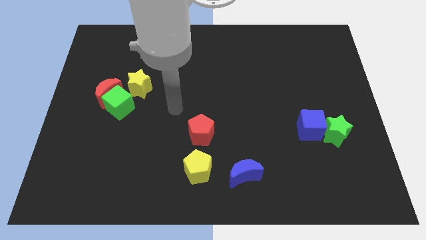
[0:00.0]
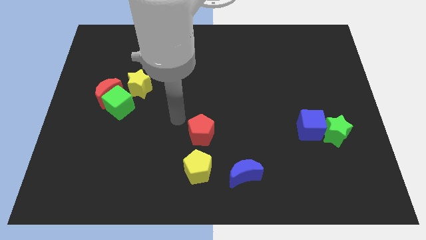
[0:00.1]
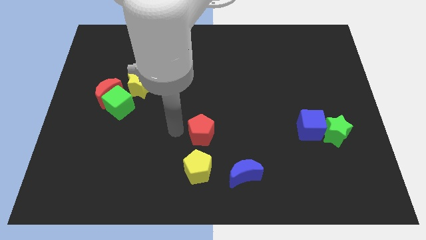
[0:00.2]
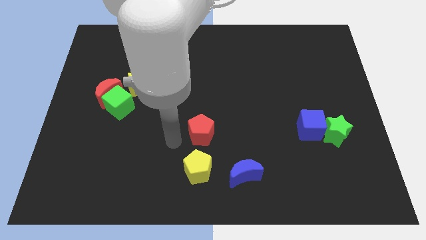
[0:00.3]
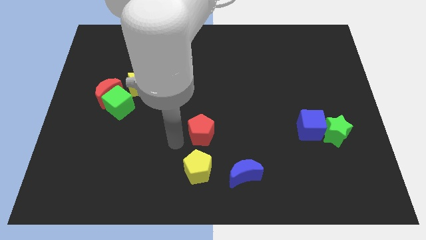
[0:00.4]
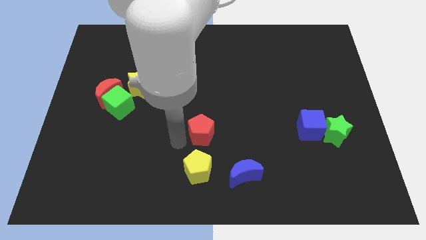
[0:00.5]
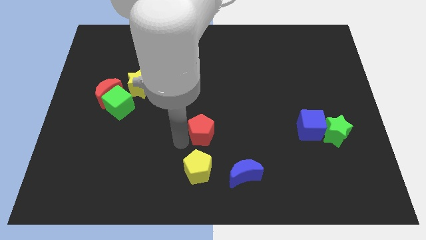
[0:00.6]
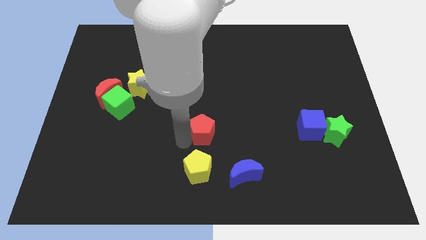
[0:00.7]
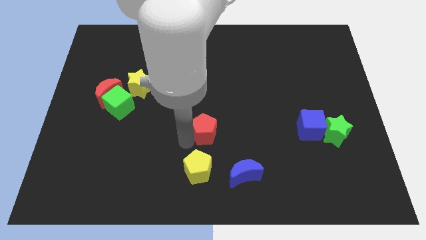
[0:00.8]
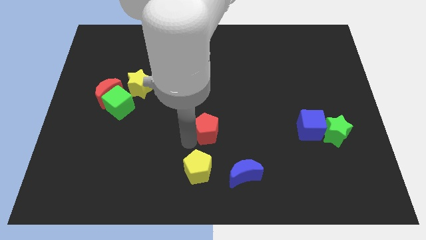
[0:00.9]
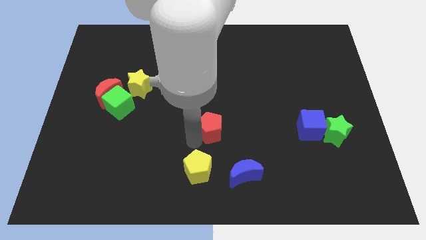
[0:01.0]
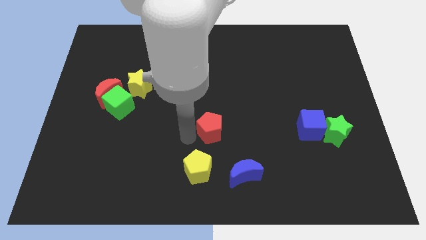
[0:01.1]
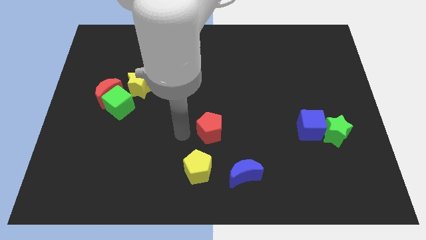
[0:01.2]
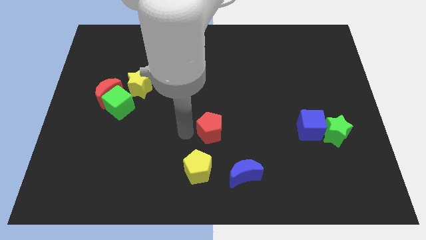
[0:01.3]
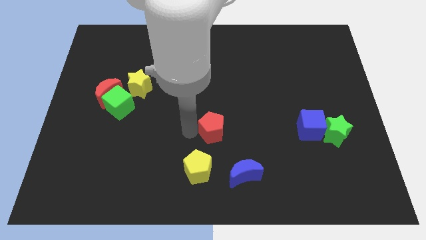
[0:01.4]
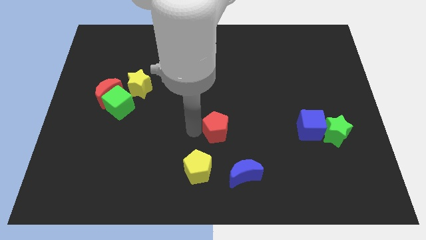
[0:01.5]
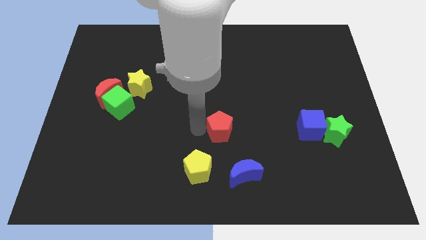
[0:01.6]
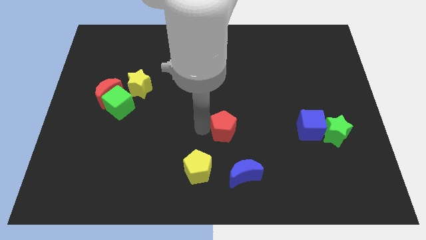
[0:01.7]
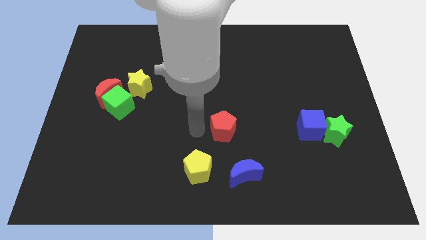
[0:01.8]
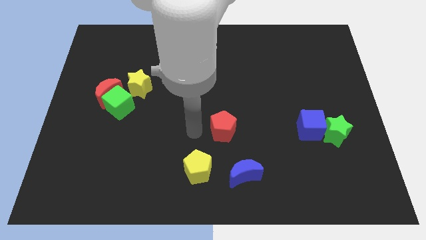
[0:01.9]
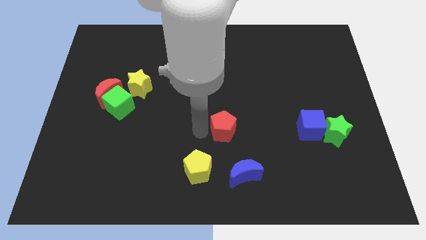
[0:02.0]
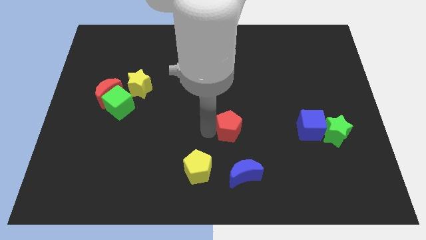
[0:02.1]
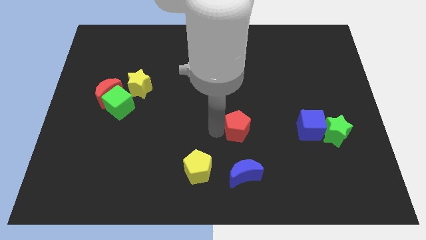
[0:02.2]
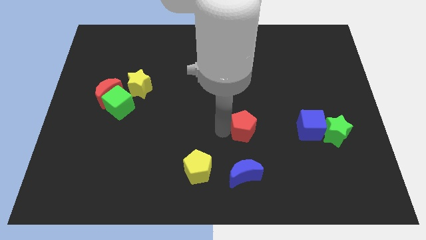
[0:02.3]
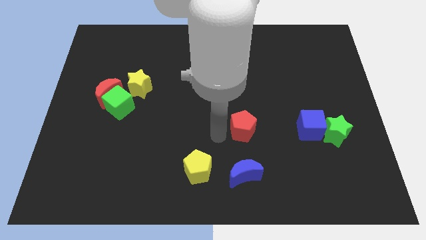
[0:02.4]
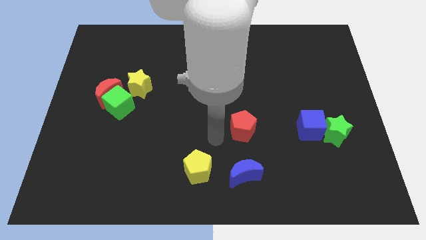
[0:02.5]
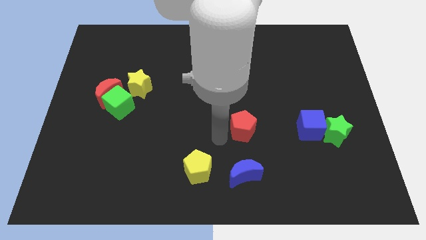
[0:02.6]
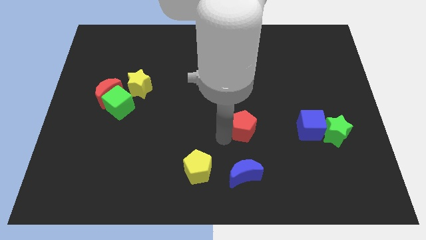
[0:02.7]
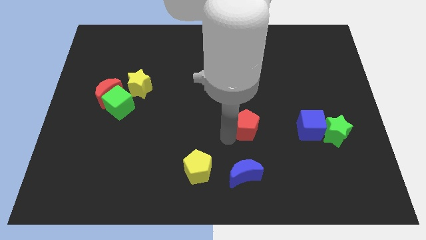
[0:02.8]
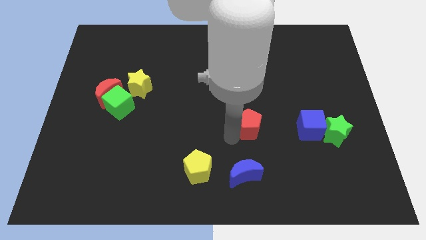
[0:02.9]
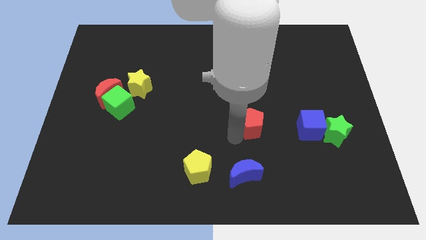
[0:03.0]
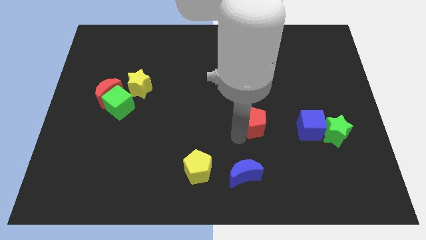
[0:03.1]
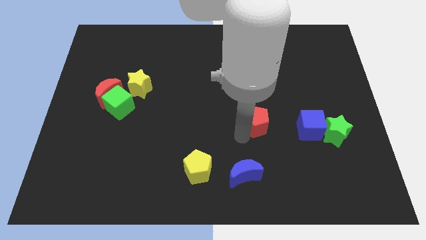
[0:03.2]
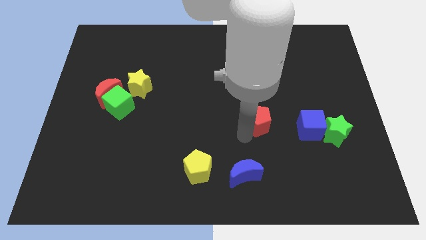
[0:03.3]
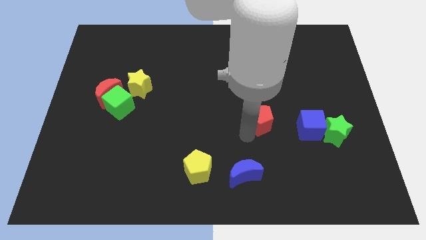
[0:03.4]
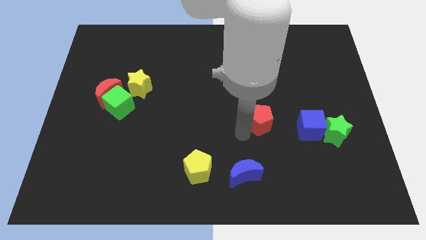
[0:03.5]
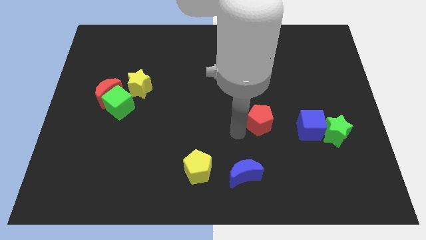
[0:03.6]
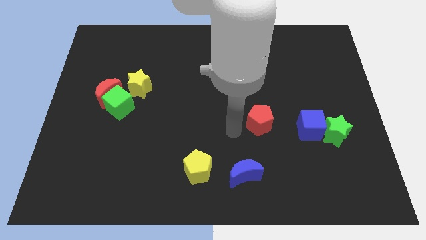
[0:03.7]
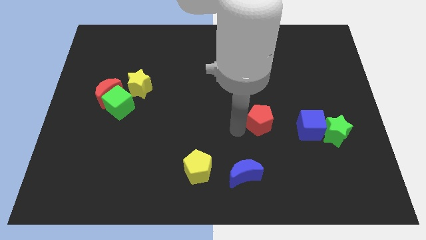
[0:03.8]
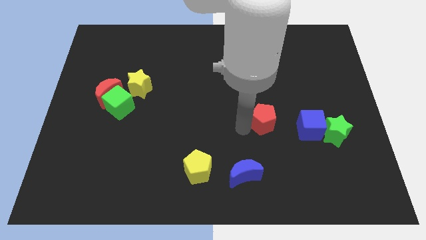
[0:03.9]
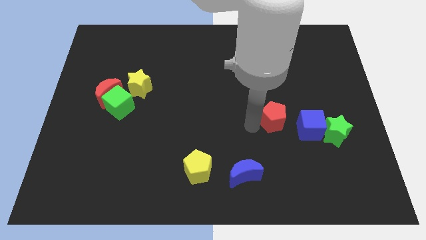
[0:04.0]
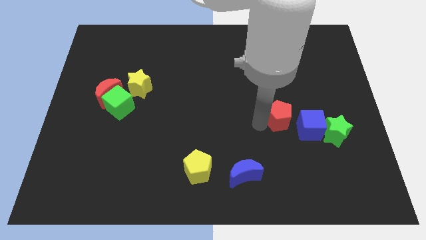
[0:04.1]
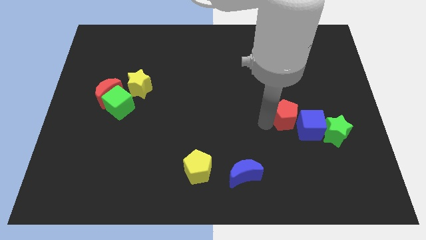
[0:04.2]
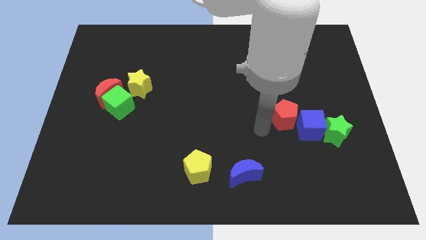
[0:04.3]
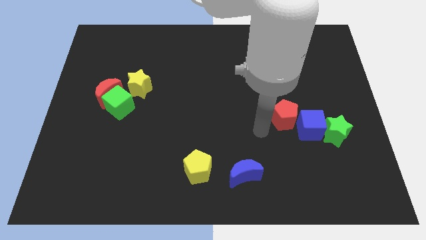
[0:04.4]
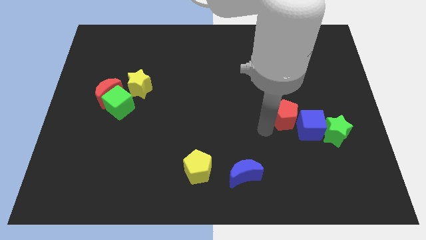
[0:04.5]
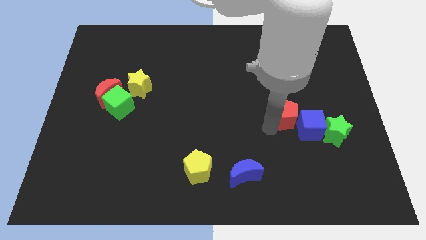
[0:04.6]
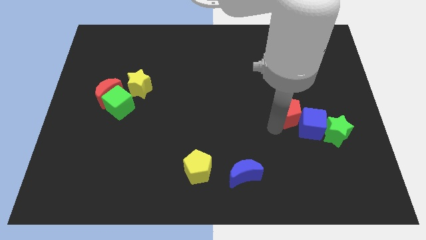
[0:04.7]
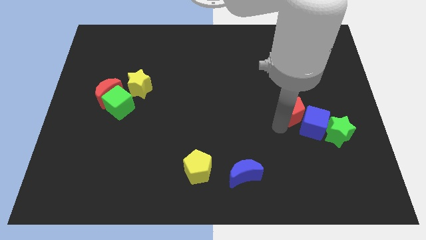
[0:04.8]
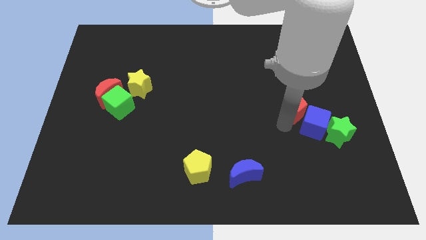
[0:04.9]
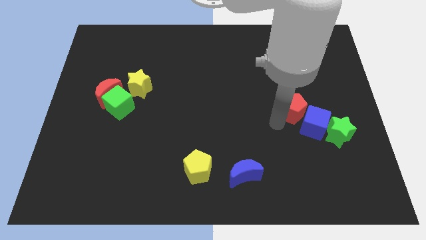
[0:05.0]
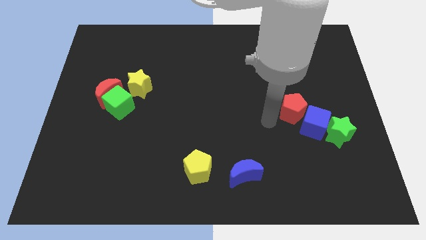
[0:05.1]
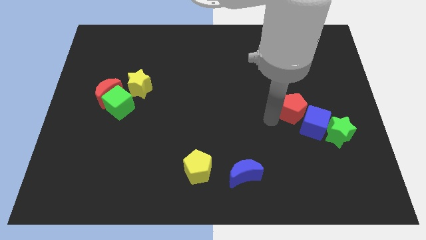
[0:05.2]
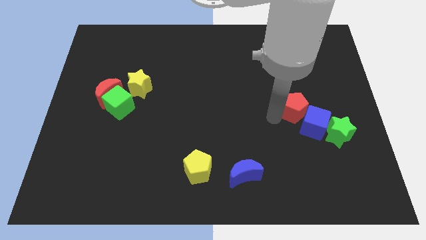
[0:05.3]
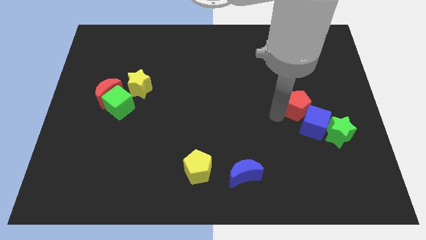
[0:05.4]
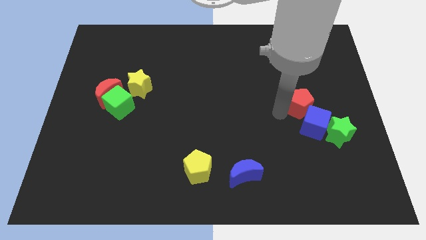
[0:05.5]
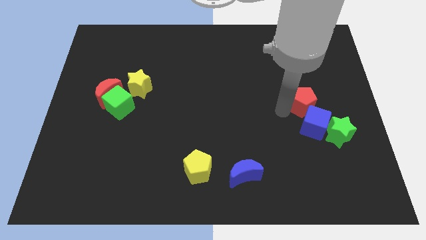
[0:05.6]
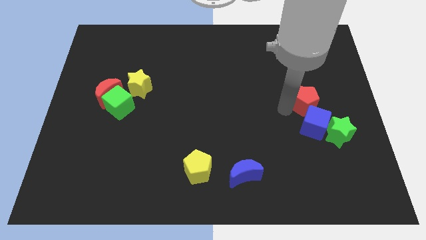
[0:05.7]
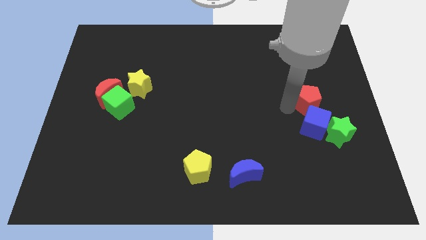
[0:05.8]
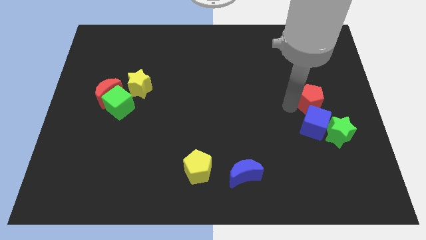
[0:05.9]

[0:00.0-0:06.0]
move the red pentagon to the top side of the green star

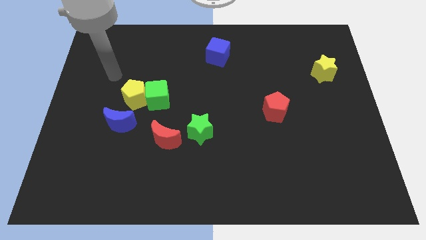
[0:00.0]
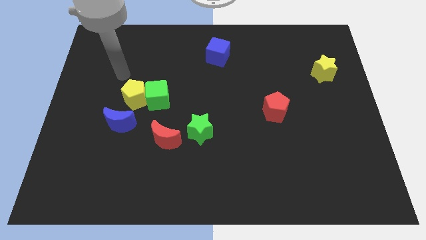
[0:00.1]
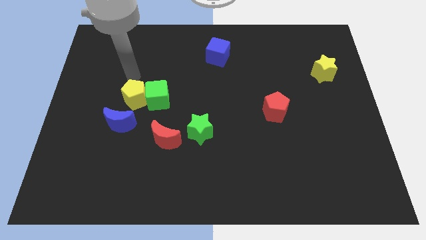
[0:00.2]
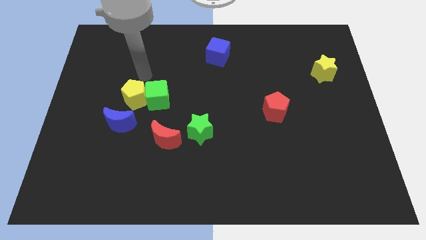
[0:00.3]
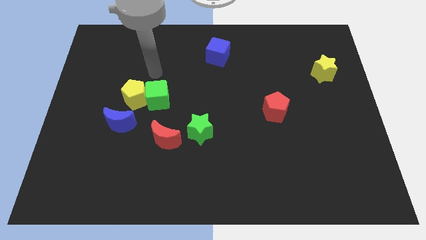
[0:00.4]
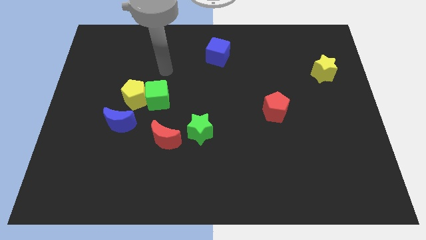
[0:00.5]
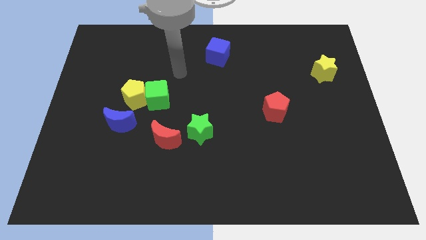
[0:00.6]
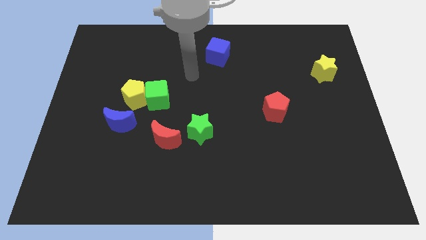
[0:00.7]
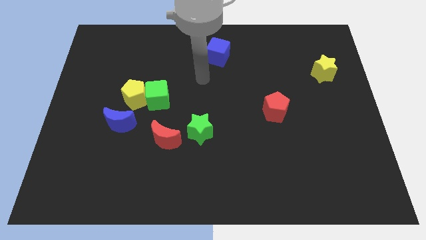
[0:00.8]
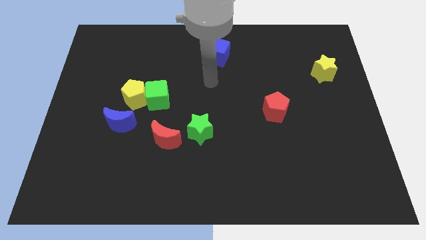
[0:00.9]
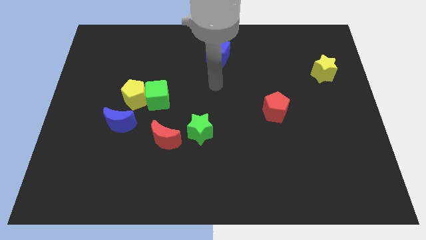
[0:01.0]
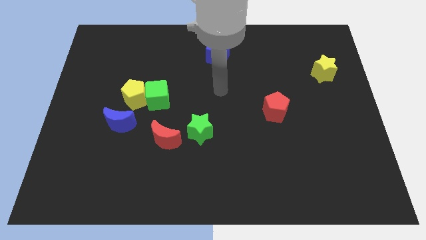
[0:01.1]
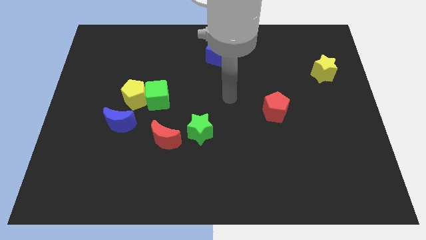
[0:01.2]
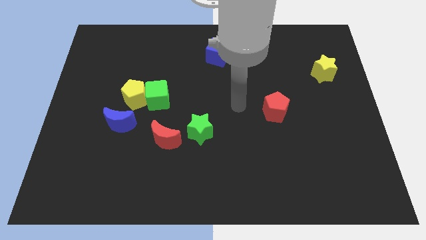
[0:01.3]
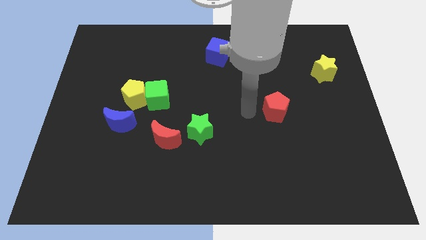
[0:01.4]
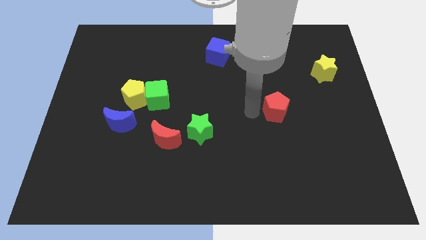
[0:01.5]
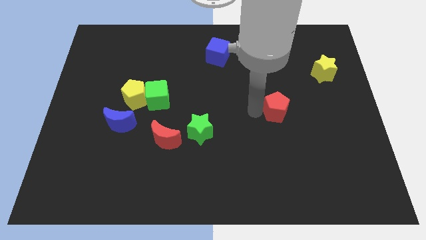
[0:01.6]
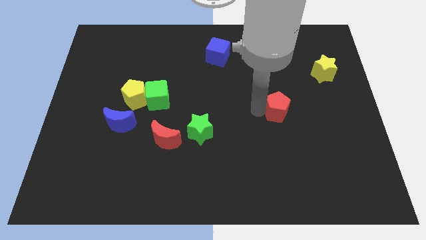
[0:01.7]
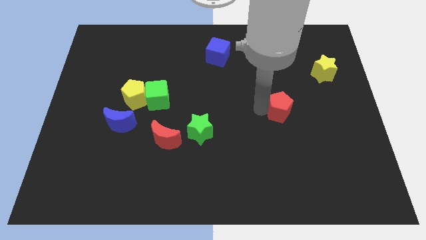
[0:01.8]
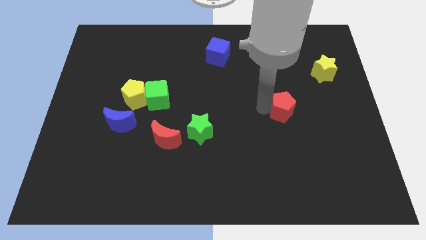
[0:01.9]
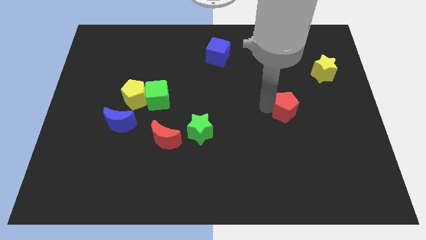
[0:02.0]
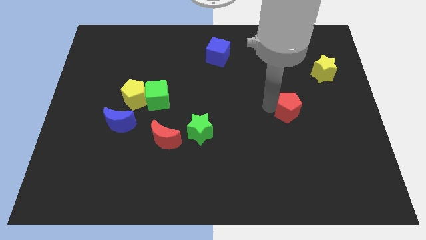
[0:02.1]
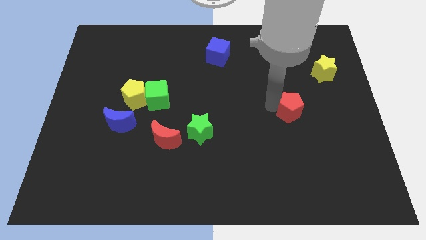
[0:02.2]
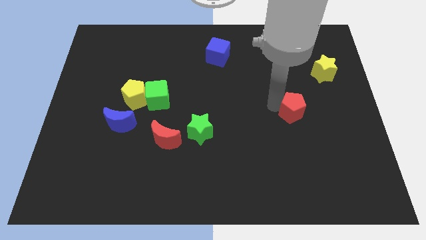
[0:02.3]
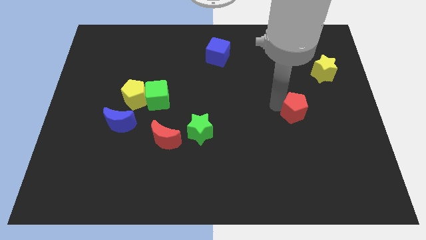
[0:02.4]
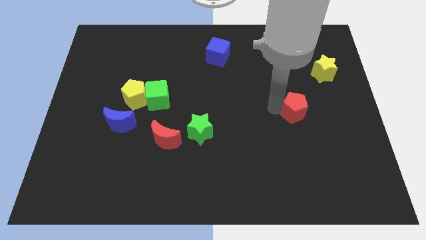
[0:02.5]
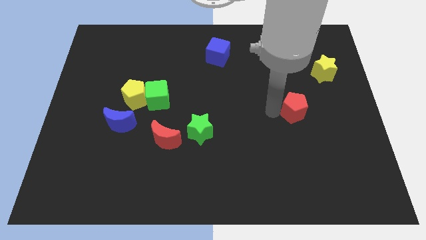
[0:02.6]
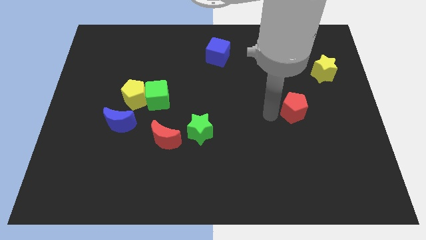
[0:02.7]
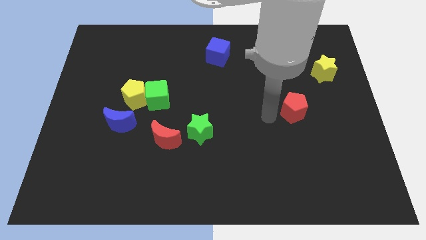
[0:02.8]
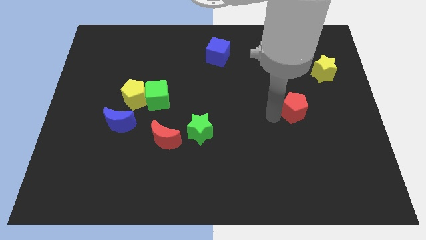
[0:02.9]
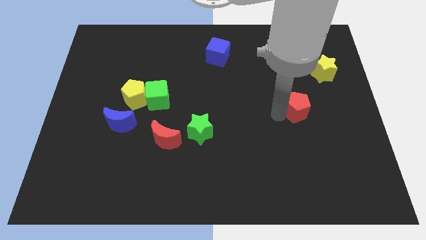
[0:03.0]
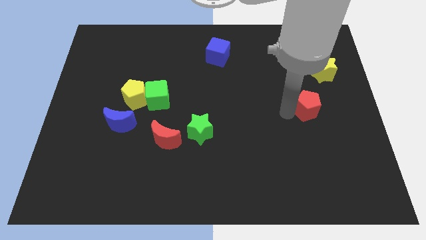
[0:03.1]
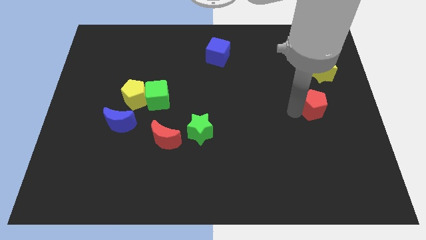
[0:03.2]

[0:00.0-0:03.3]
slide the red pentagon below the yellow star
